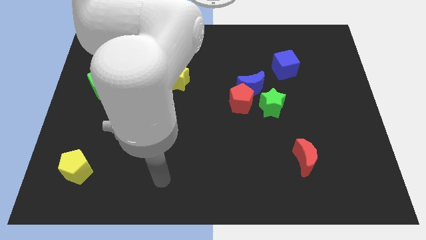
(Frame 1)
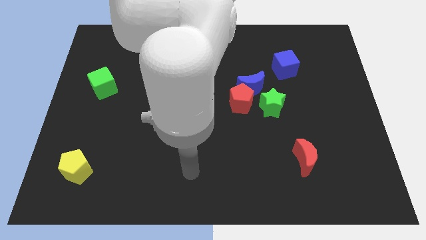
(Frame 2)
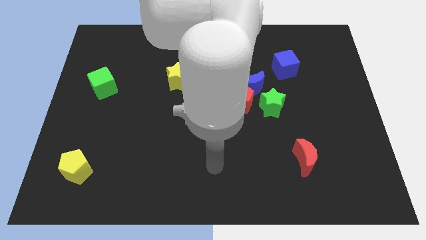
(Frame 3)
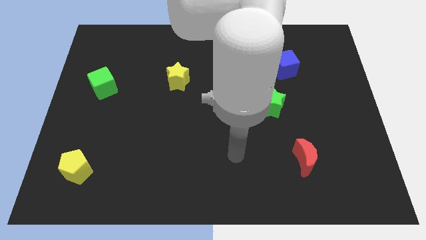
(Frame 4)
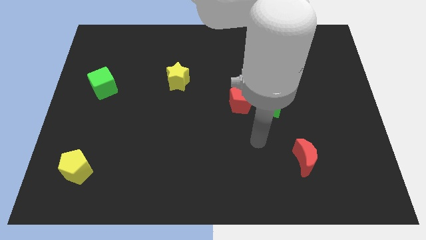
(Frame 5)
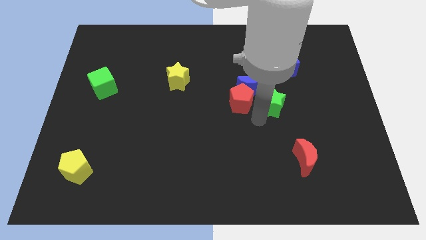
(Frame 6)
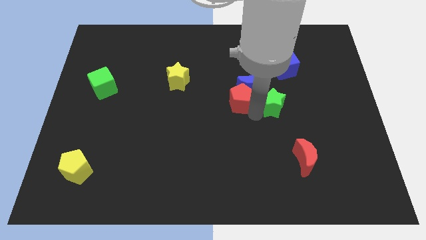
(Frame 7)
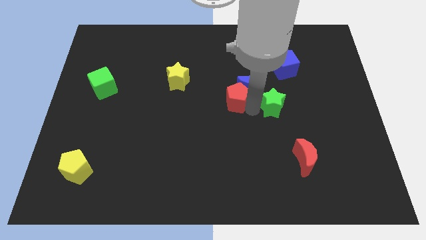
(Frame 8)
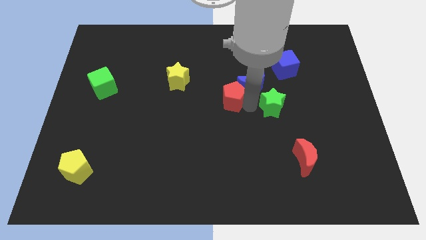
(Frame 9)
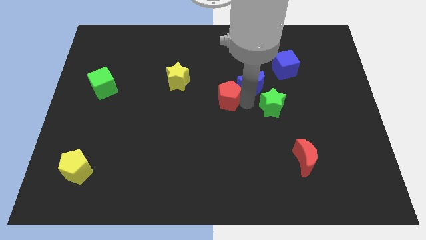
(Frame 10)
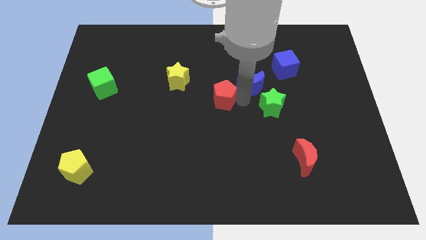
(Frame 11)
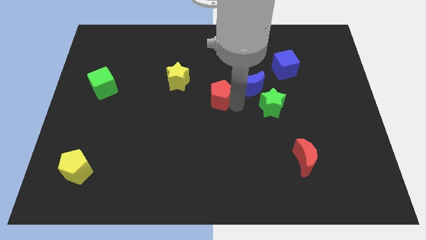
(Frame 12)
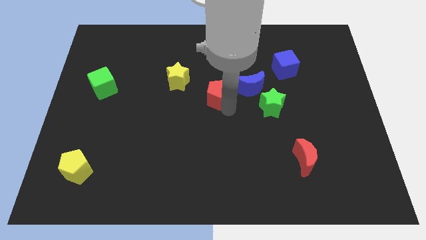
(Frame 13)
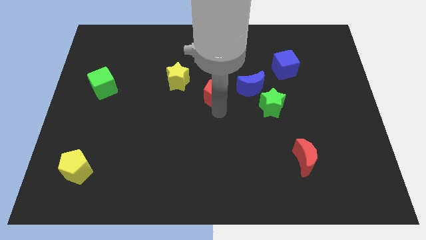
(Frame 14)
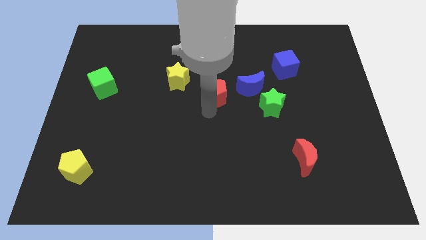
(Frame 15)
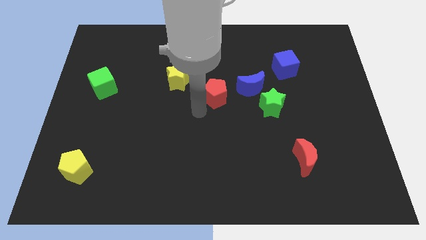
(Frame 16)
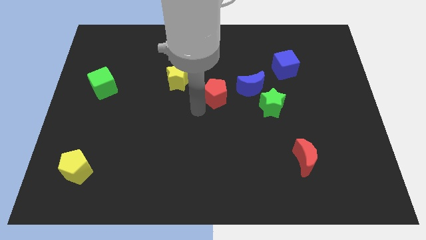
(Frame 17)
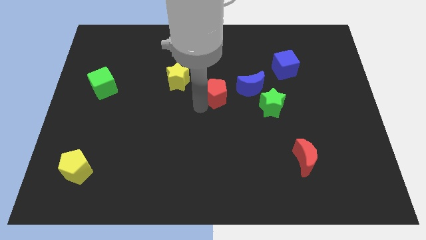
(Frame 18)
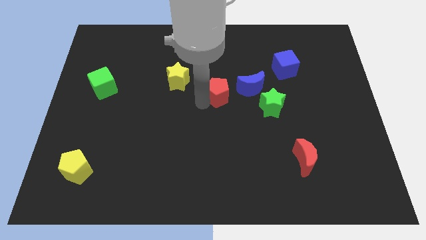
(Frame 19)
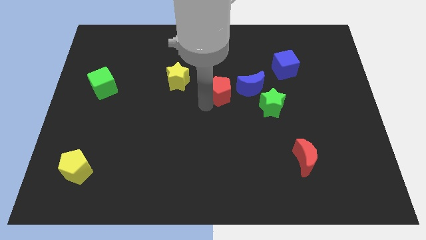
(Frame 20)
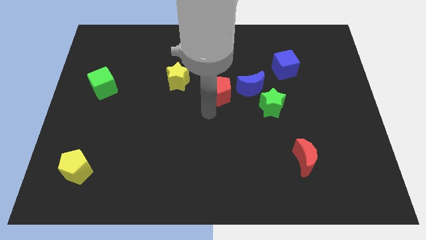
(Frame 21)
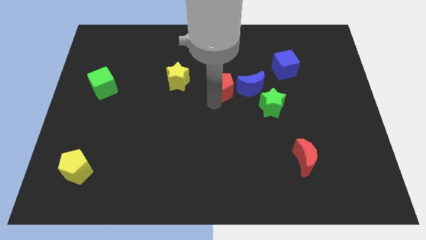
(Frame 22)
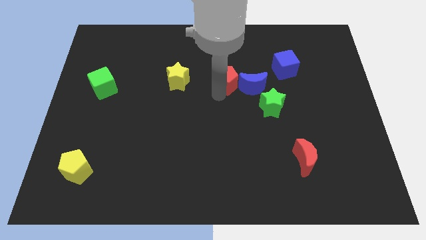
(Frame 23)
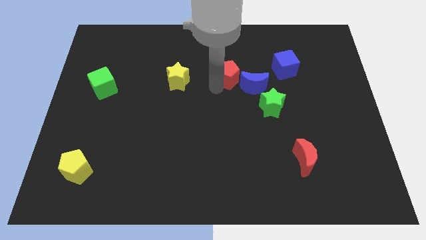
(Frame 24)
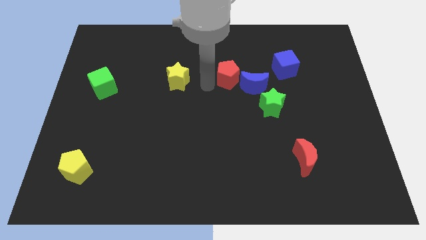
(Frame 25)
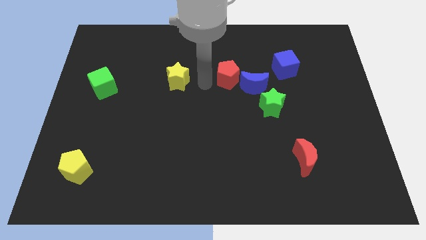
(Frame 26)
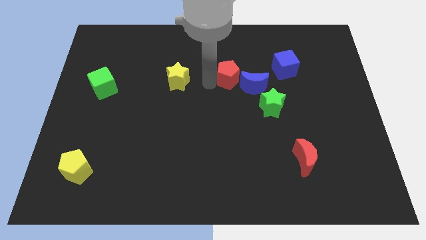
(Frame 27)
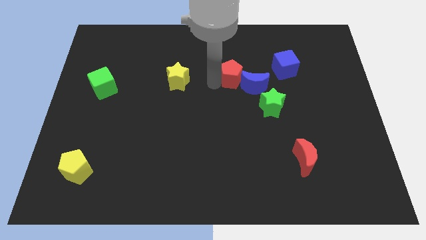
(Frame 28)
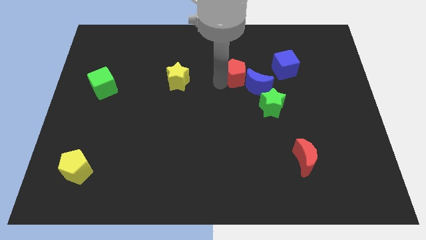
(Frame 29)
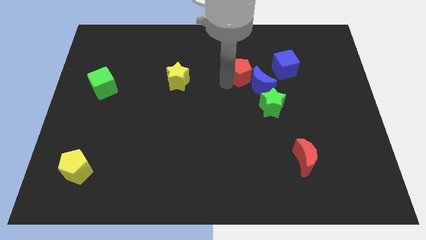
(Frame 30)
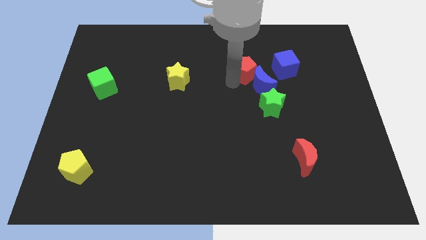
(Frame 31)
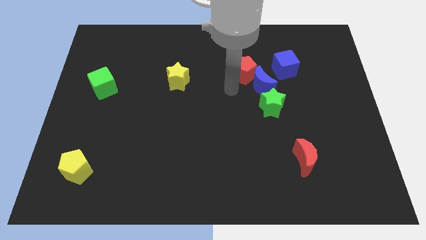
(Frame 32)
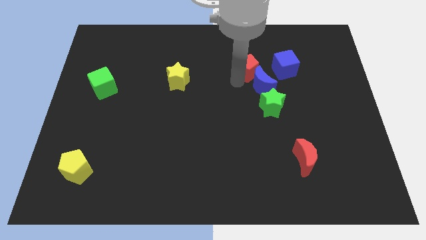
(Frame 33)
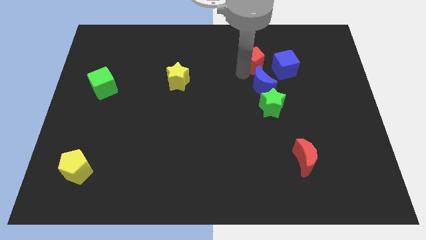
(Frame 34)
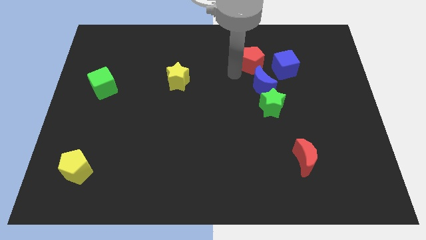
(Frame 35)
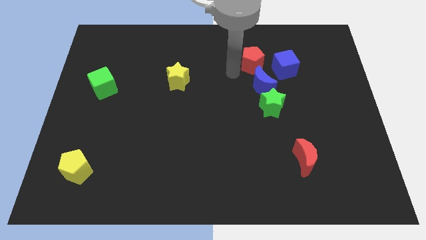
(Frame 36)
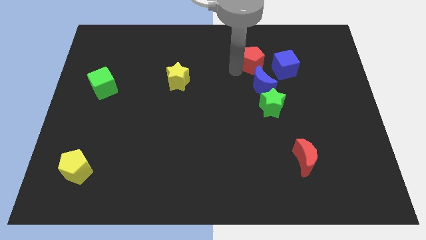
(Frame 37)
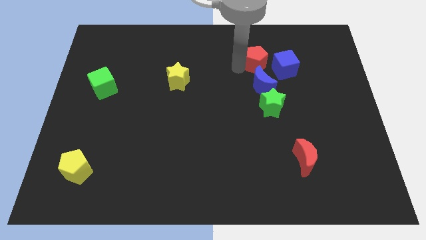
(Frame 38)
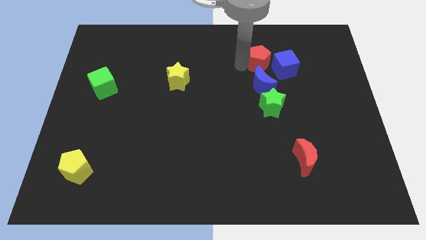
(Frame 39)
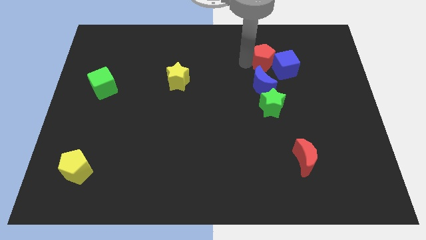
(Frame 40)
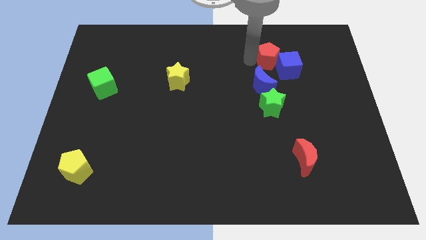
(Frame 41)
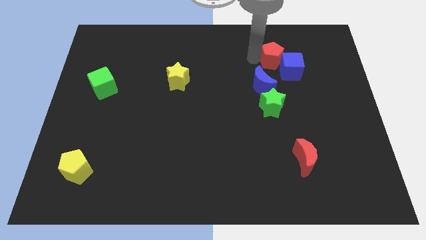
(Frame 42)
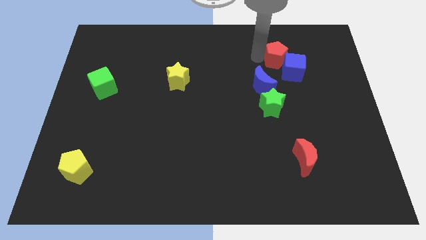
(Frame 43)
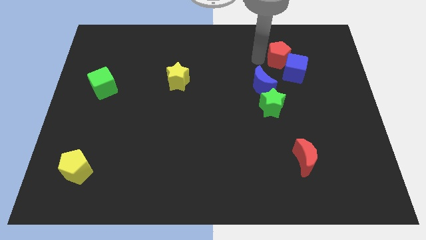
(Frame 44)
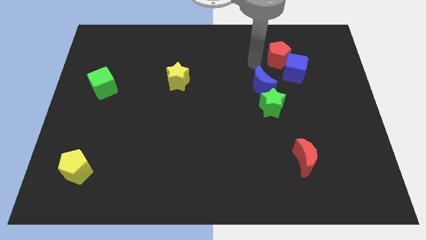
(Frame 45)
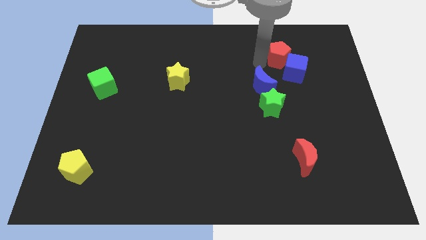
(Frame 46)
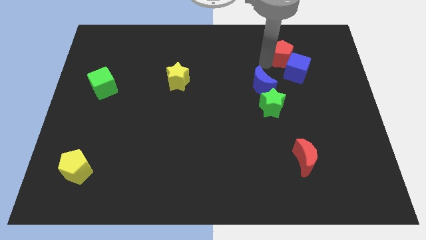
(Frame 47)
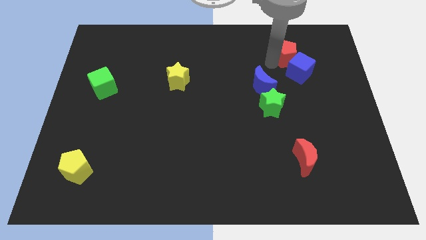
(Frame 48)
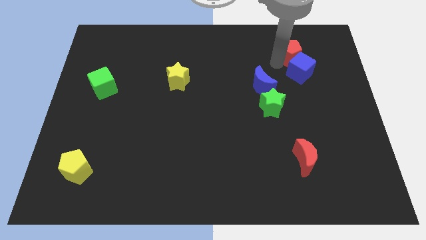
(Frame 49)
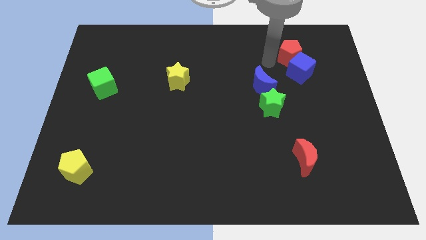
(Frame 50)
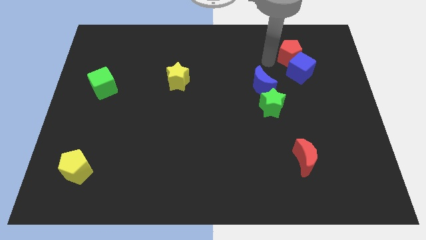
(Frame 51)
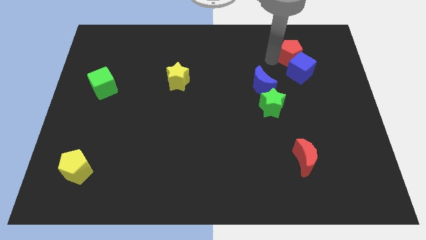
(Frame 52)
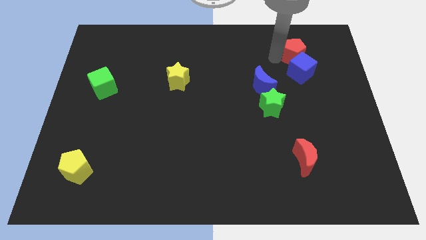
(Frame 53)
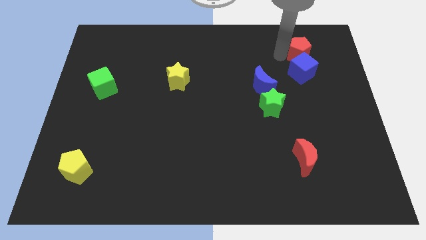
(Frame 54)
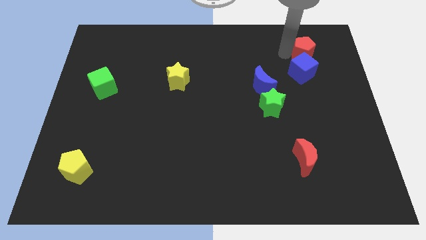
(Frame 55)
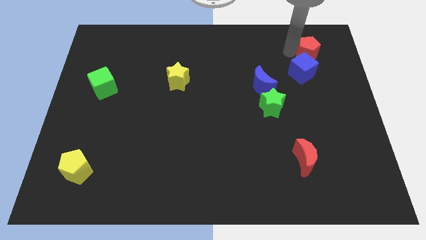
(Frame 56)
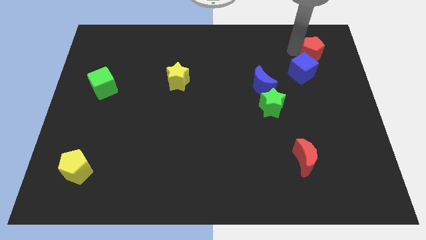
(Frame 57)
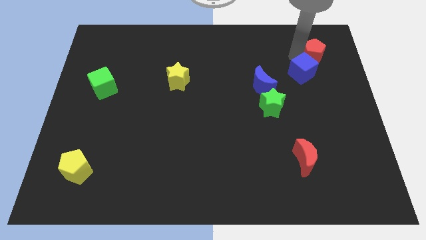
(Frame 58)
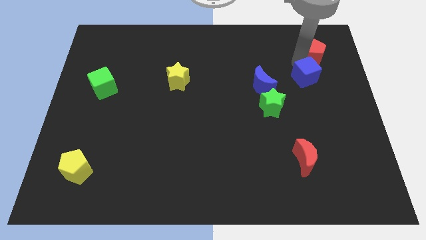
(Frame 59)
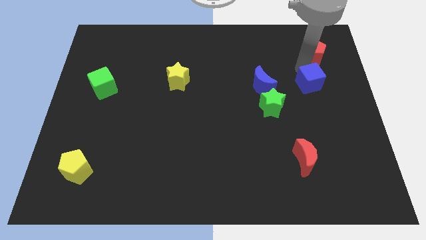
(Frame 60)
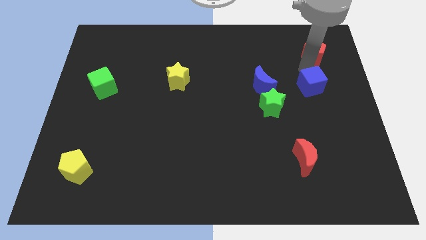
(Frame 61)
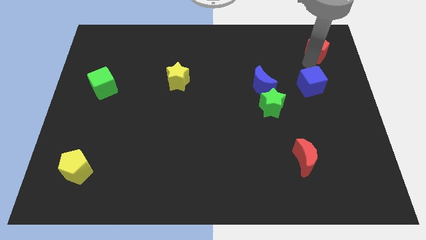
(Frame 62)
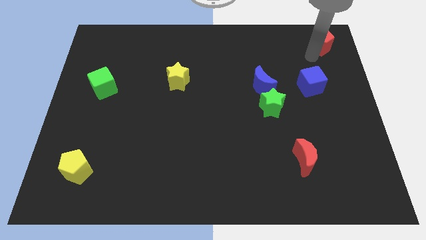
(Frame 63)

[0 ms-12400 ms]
put the red pentagon to the upper right corner

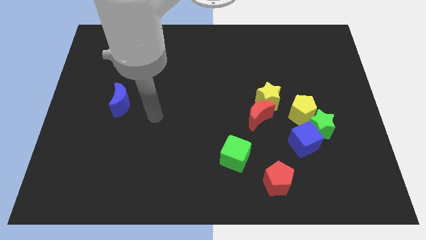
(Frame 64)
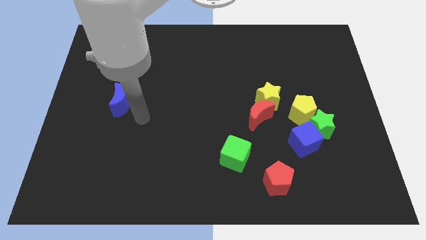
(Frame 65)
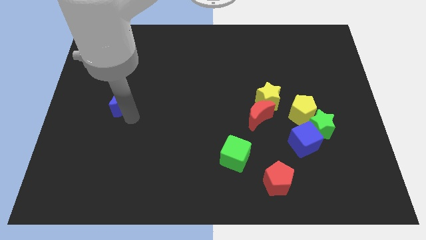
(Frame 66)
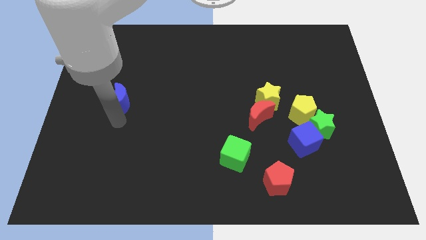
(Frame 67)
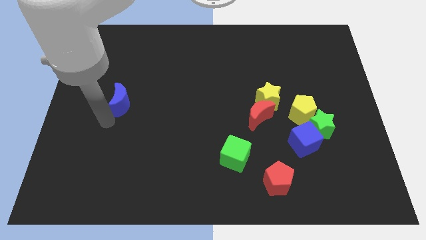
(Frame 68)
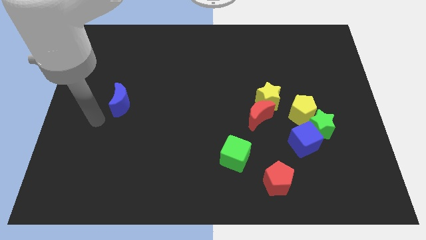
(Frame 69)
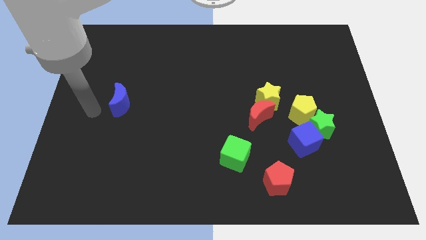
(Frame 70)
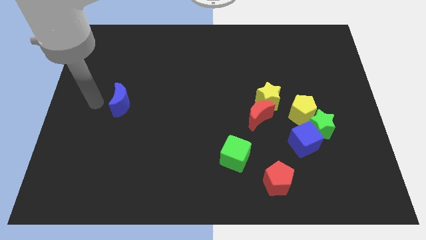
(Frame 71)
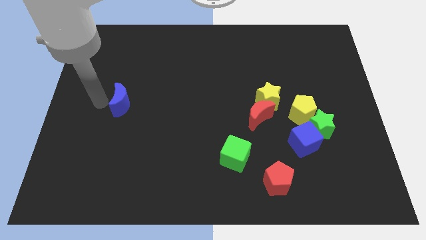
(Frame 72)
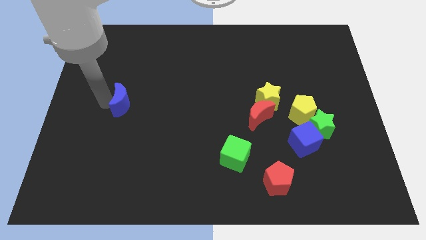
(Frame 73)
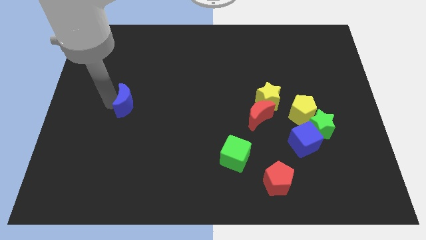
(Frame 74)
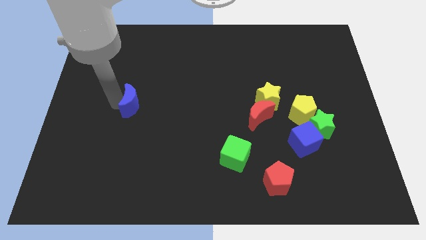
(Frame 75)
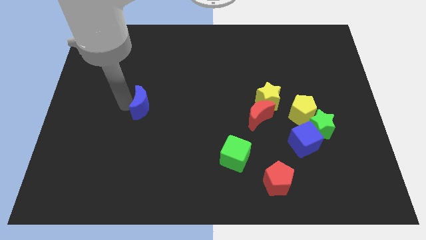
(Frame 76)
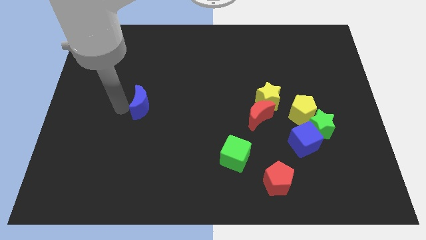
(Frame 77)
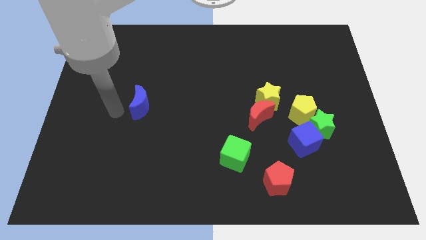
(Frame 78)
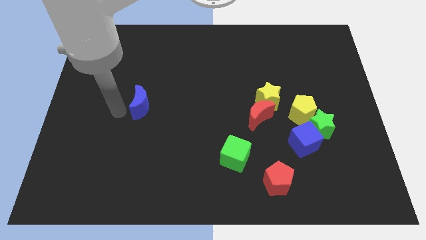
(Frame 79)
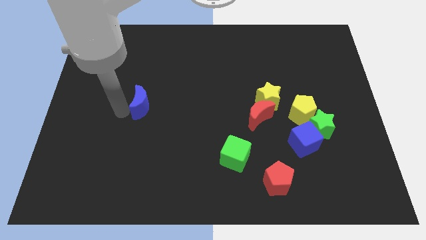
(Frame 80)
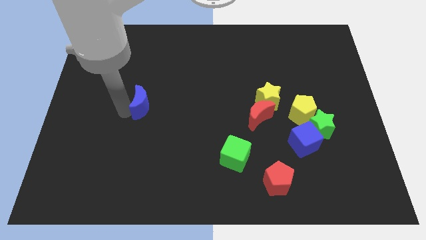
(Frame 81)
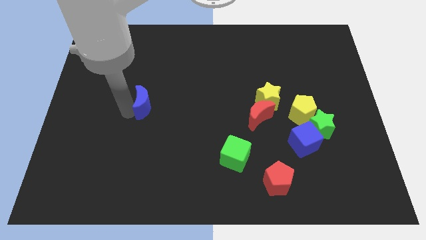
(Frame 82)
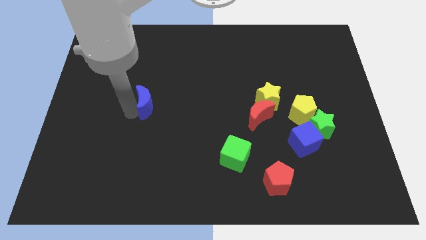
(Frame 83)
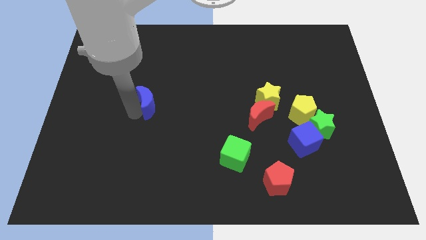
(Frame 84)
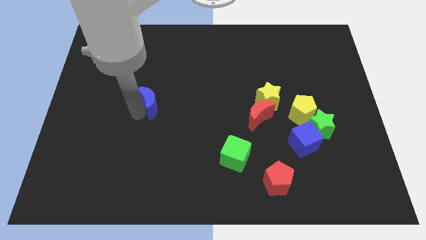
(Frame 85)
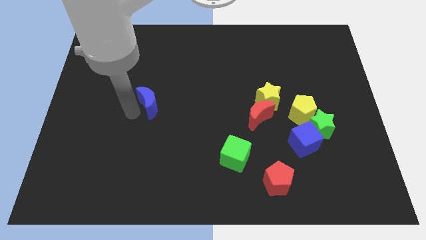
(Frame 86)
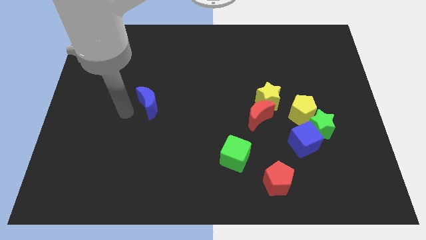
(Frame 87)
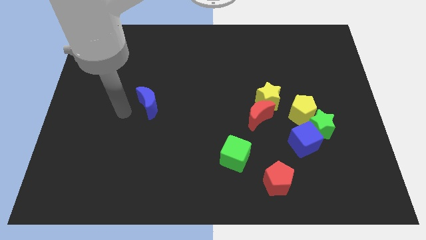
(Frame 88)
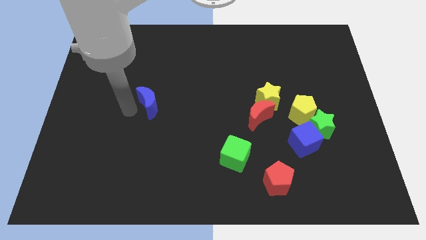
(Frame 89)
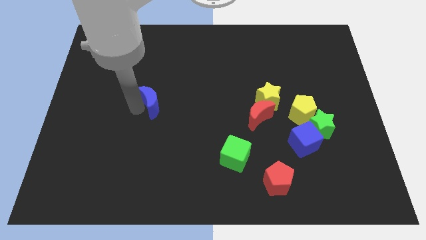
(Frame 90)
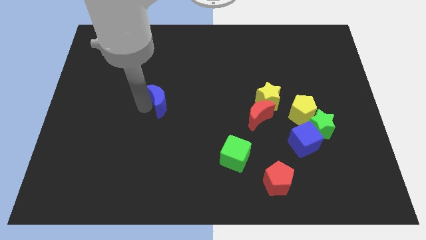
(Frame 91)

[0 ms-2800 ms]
push the blue moon to the center of the board
